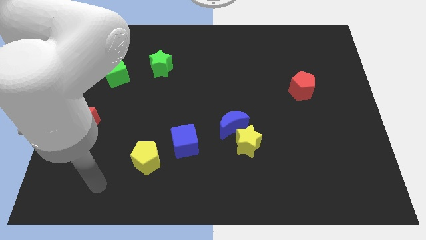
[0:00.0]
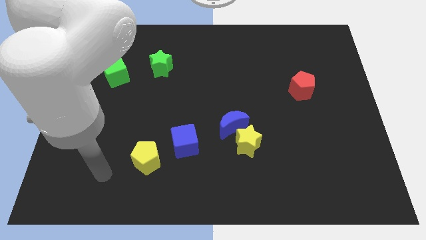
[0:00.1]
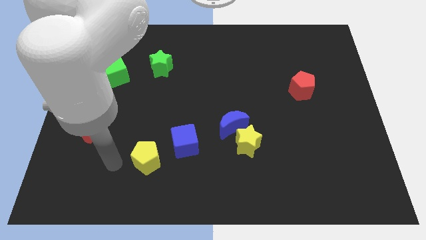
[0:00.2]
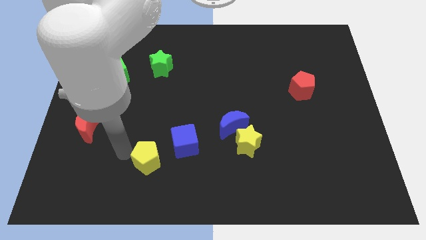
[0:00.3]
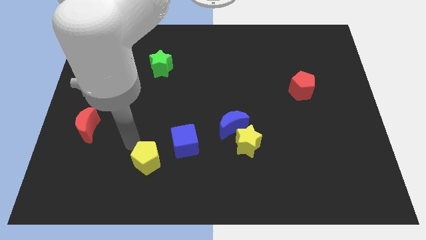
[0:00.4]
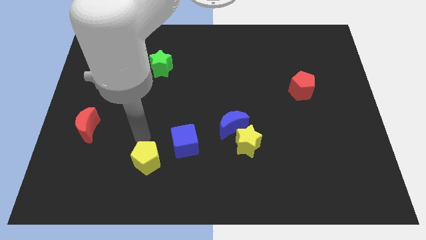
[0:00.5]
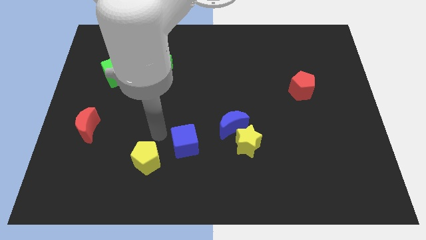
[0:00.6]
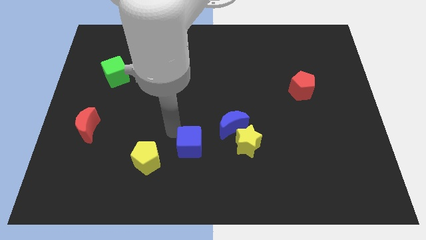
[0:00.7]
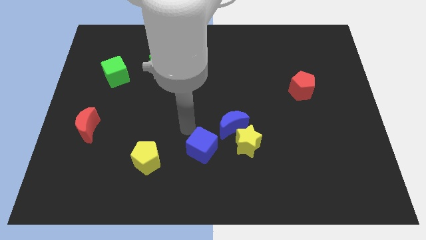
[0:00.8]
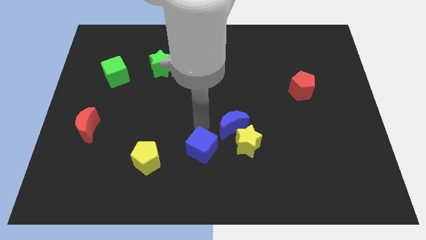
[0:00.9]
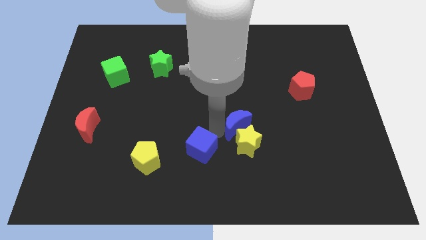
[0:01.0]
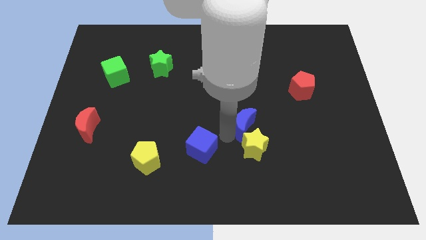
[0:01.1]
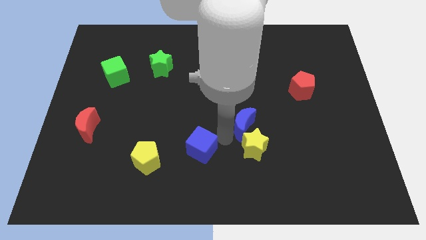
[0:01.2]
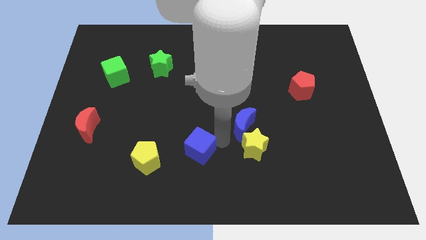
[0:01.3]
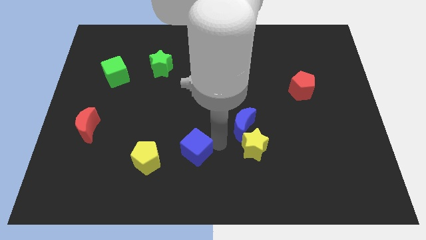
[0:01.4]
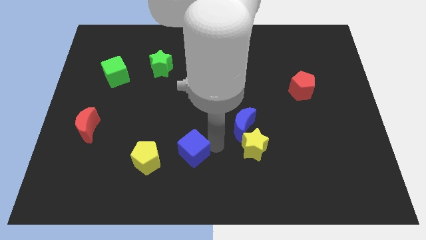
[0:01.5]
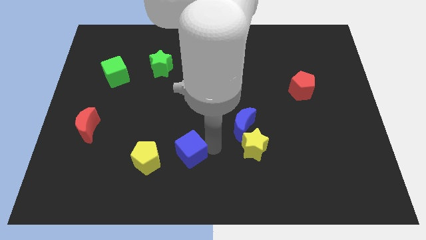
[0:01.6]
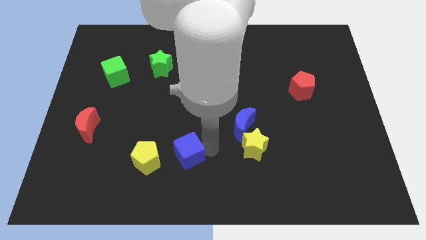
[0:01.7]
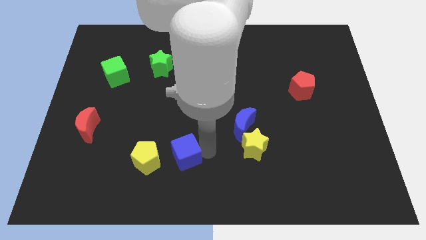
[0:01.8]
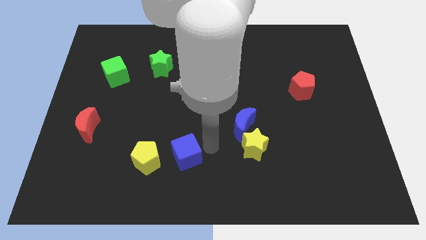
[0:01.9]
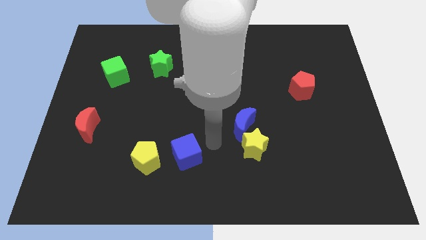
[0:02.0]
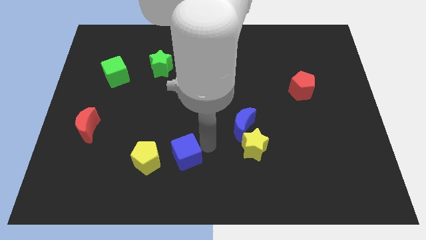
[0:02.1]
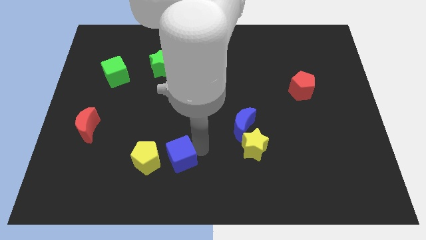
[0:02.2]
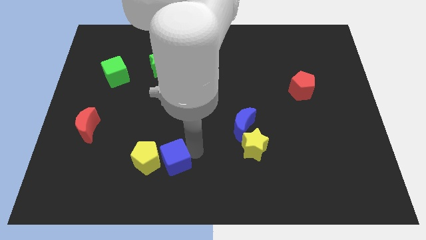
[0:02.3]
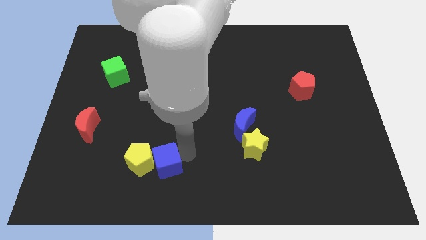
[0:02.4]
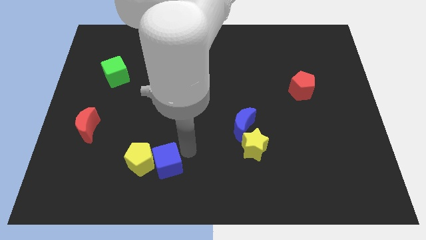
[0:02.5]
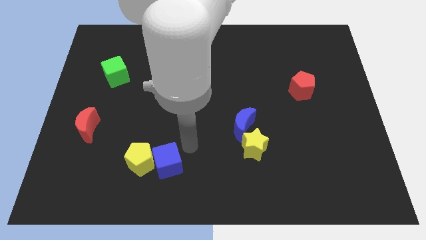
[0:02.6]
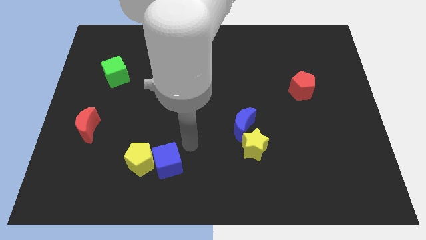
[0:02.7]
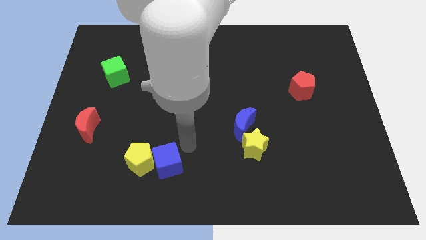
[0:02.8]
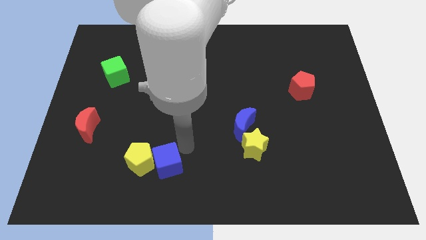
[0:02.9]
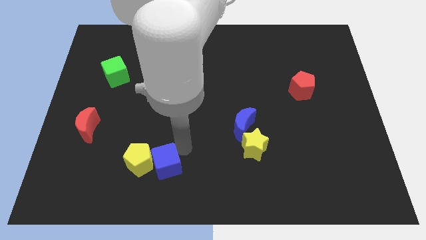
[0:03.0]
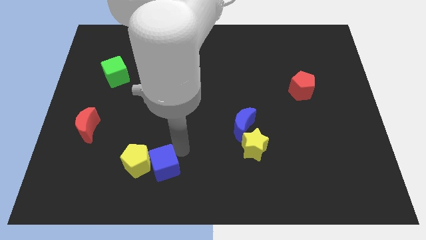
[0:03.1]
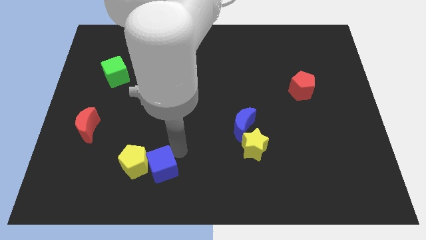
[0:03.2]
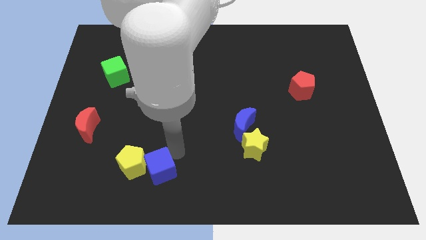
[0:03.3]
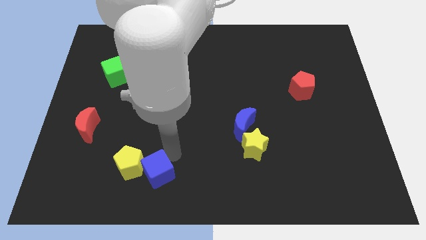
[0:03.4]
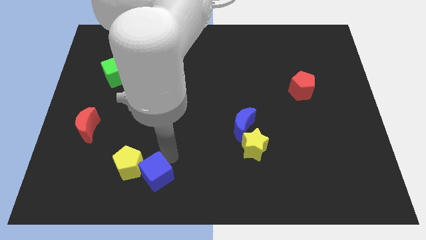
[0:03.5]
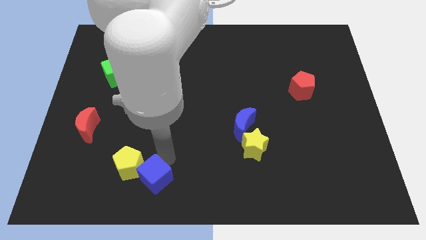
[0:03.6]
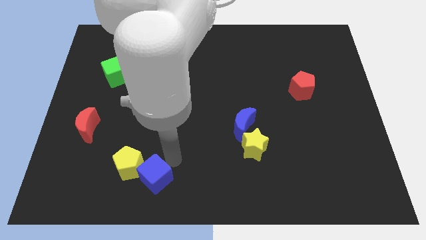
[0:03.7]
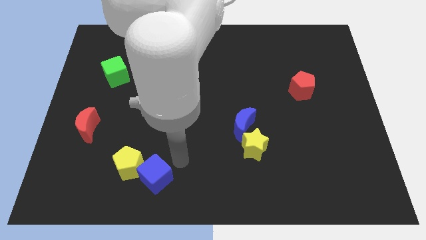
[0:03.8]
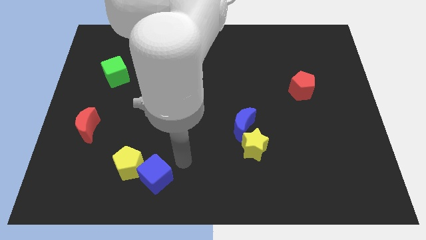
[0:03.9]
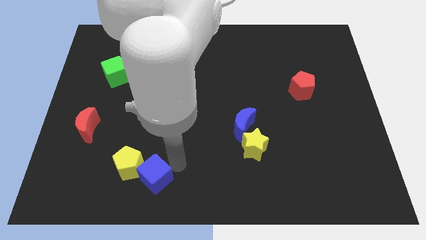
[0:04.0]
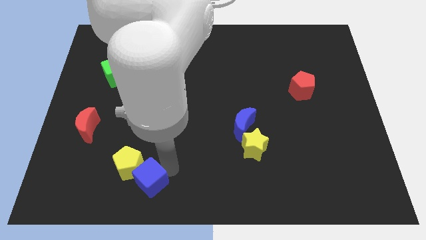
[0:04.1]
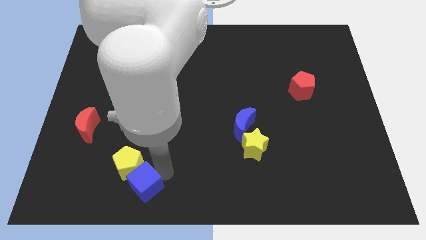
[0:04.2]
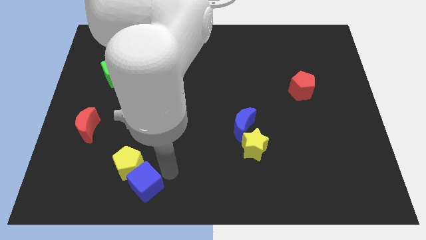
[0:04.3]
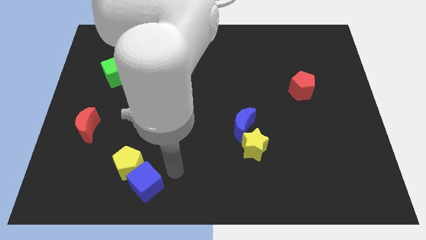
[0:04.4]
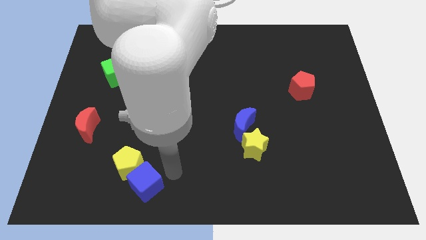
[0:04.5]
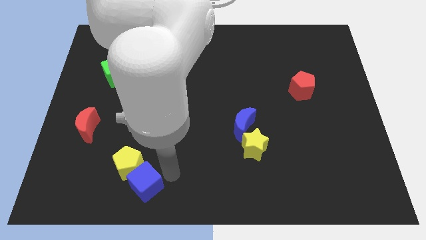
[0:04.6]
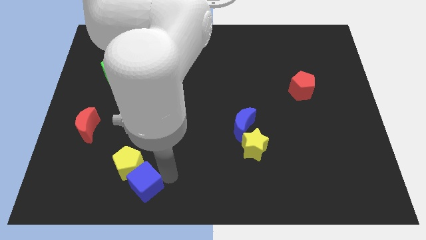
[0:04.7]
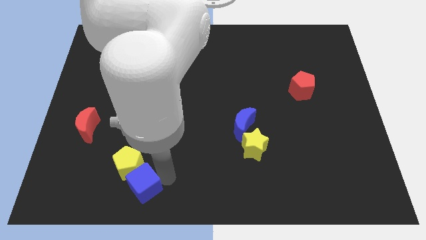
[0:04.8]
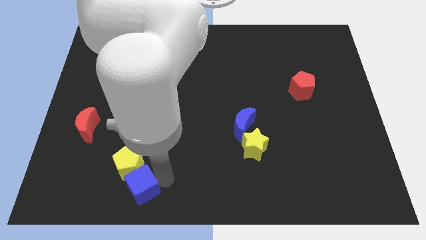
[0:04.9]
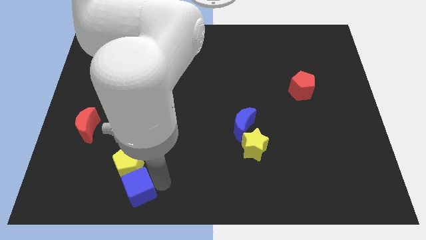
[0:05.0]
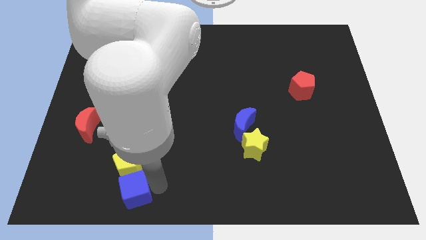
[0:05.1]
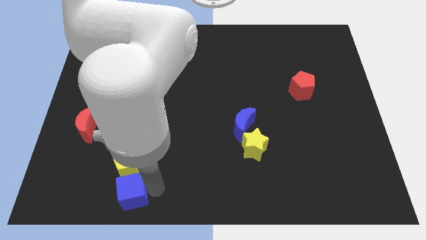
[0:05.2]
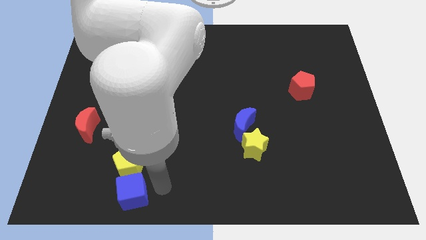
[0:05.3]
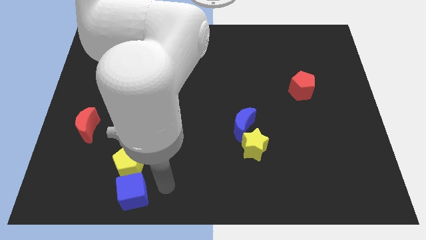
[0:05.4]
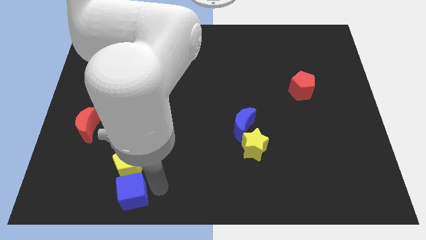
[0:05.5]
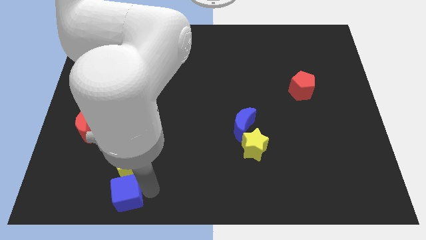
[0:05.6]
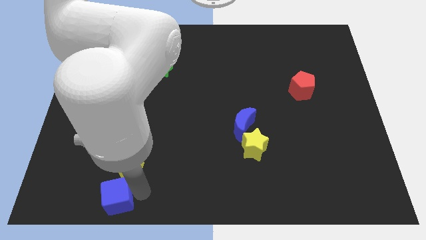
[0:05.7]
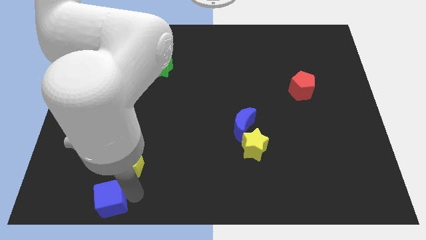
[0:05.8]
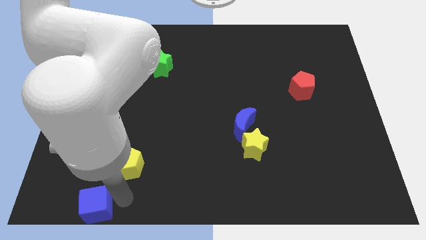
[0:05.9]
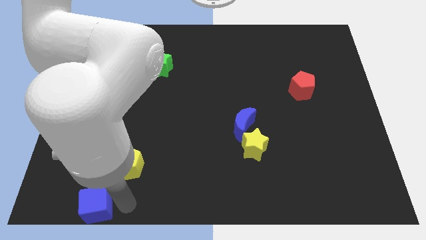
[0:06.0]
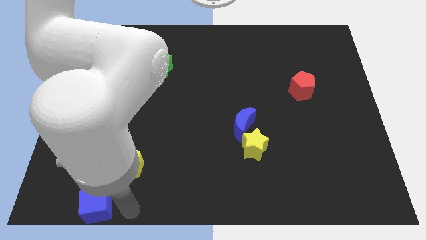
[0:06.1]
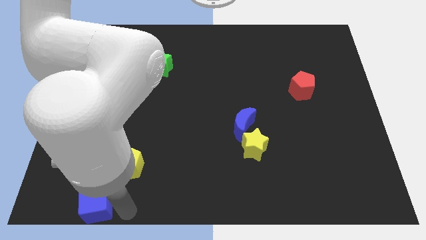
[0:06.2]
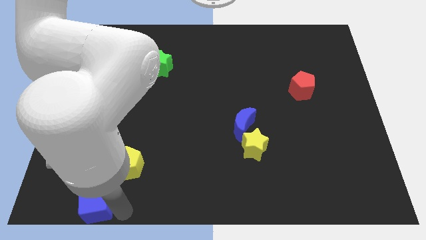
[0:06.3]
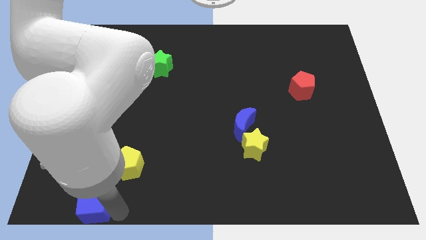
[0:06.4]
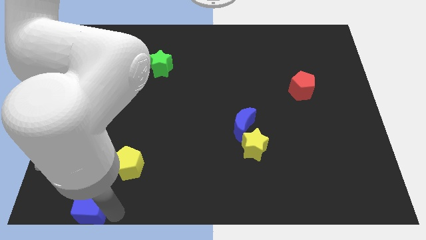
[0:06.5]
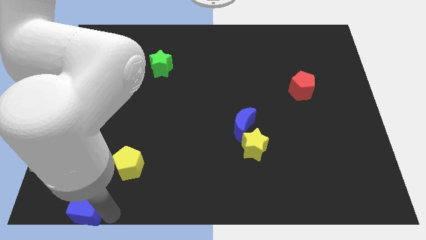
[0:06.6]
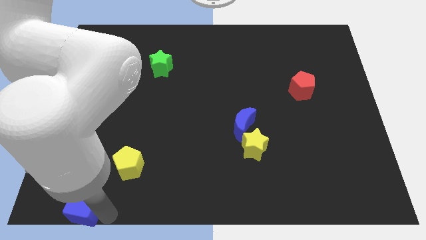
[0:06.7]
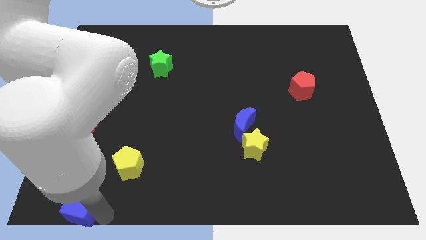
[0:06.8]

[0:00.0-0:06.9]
push the blue cube to the bottom left corner
